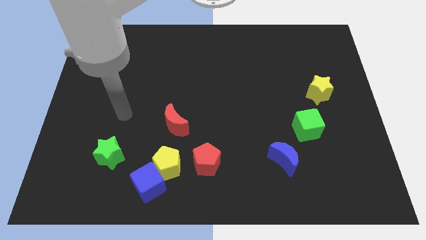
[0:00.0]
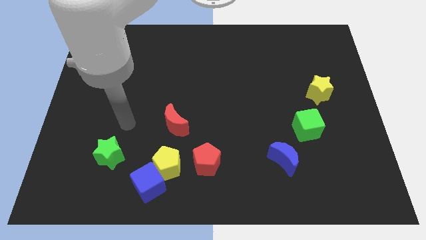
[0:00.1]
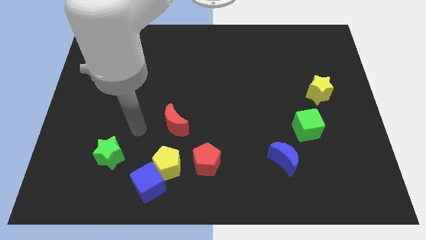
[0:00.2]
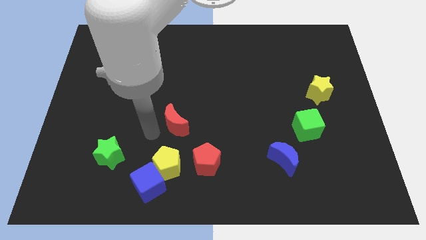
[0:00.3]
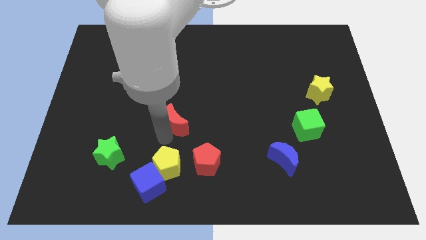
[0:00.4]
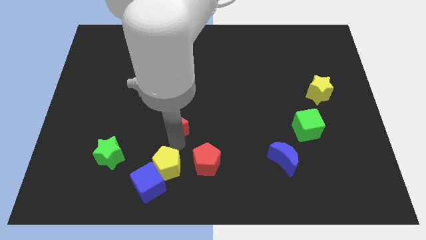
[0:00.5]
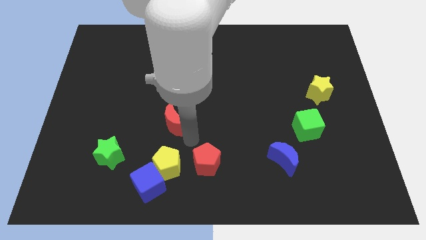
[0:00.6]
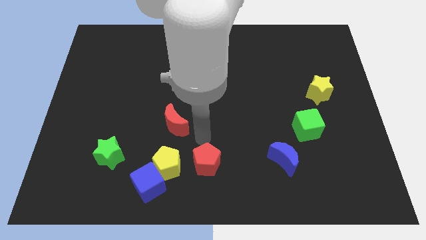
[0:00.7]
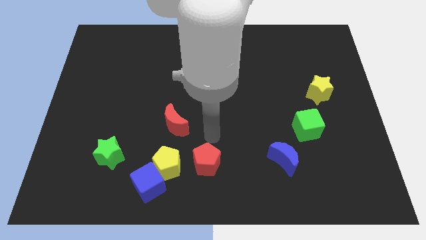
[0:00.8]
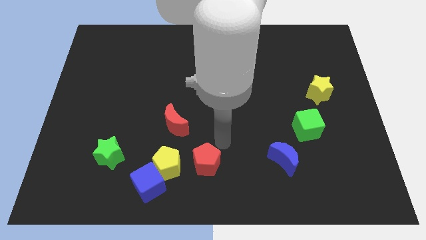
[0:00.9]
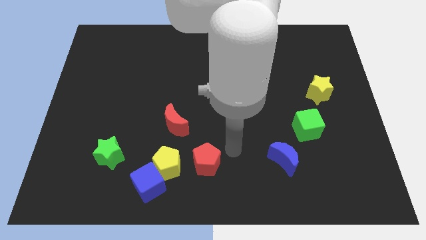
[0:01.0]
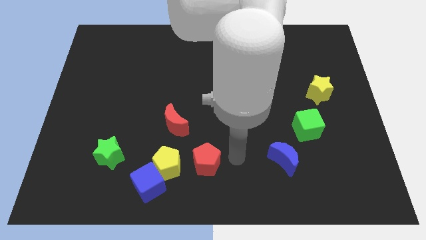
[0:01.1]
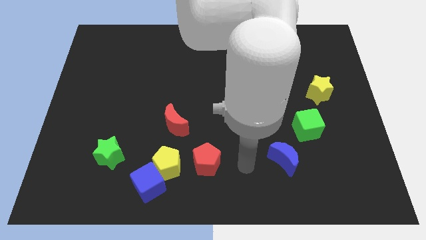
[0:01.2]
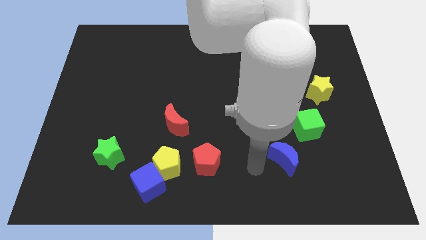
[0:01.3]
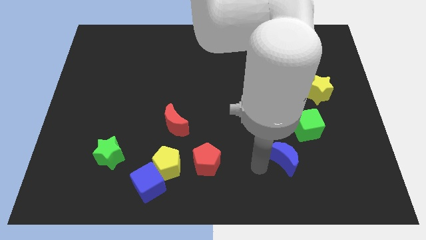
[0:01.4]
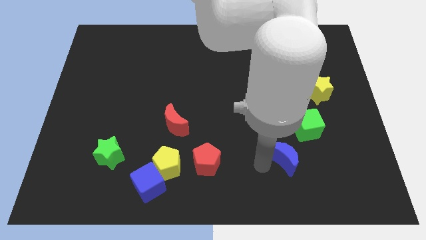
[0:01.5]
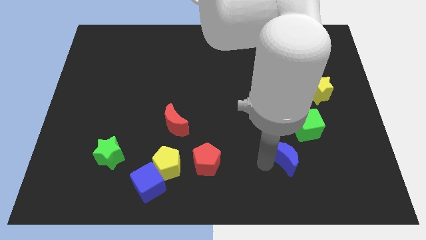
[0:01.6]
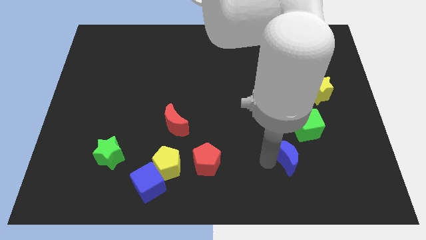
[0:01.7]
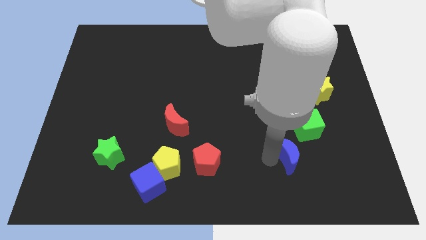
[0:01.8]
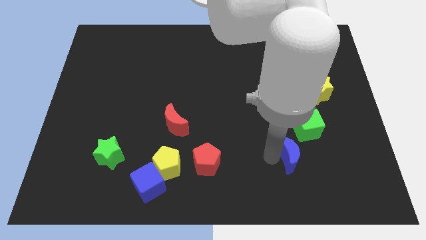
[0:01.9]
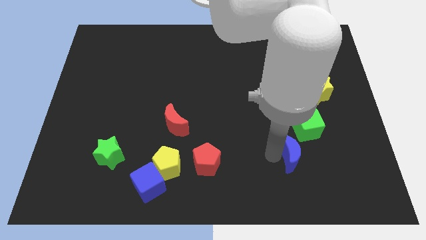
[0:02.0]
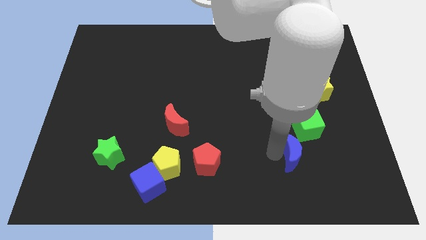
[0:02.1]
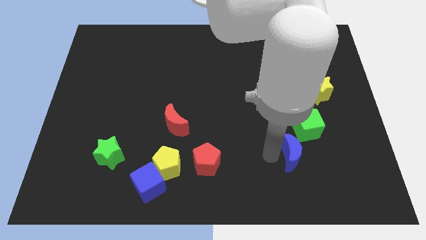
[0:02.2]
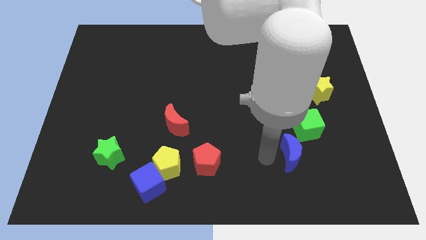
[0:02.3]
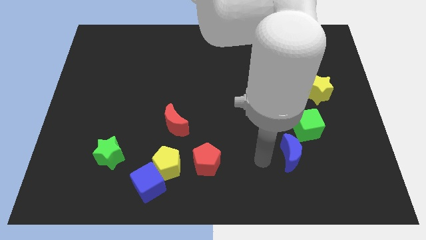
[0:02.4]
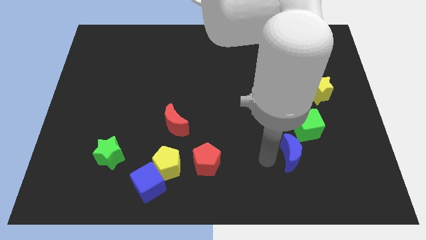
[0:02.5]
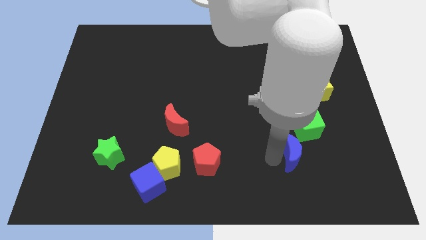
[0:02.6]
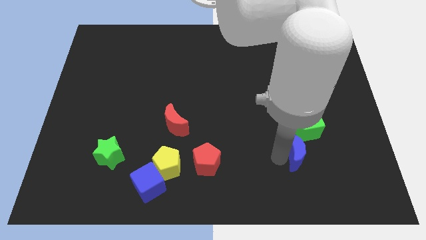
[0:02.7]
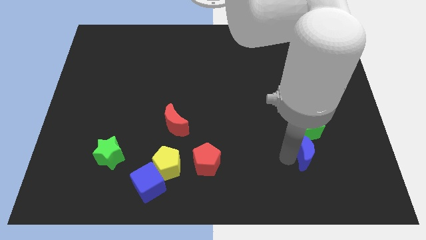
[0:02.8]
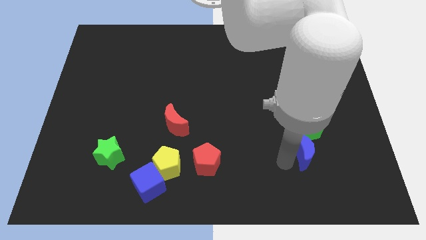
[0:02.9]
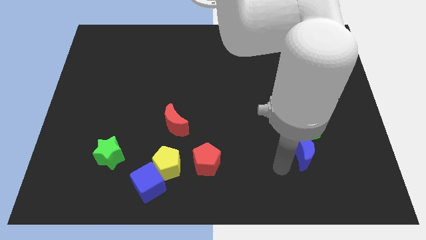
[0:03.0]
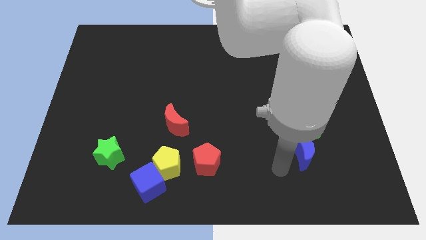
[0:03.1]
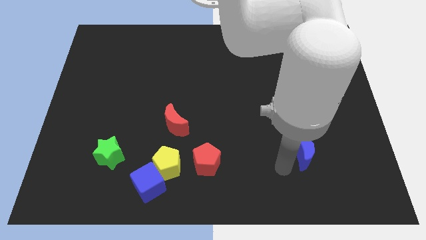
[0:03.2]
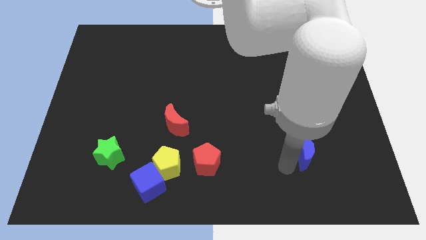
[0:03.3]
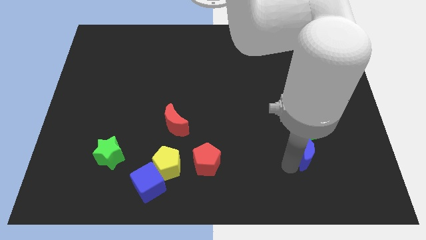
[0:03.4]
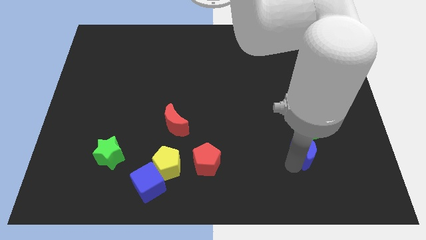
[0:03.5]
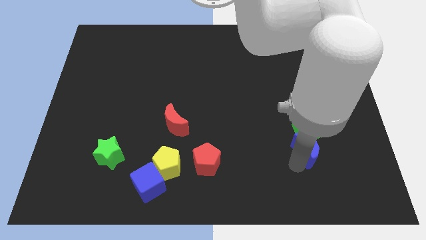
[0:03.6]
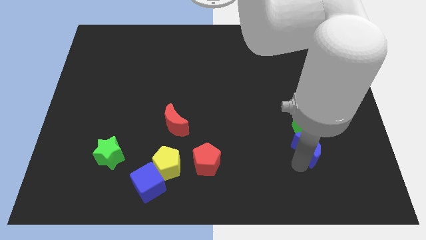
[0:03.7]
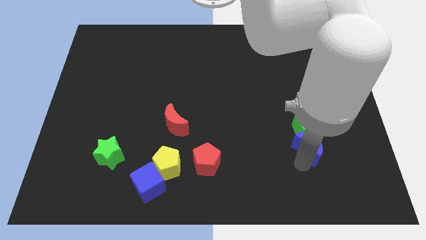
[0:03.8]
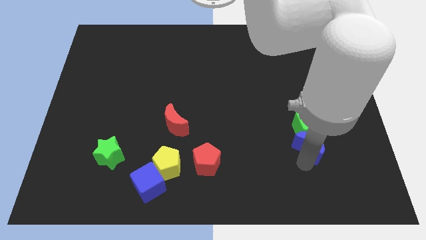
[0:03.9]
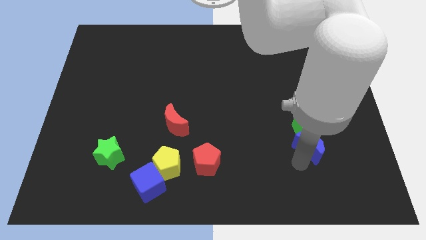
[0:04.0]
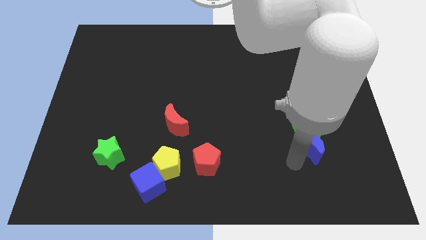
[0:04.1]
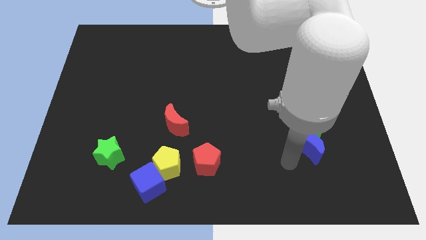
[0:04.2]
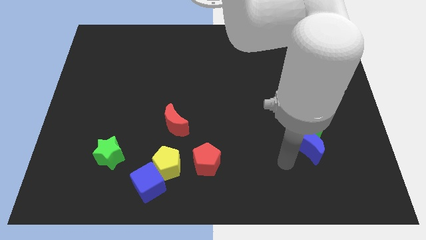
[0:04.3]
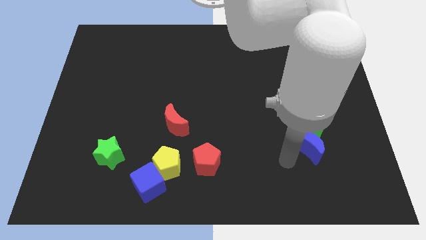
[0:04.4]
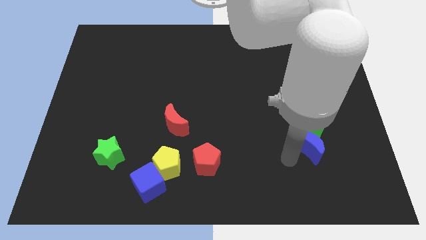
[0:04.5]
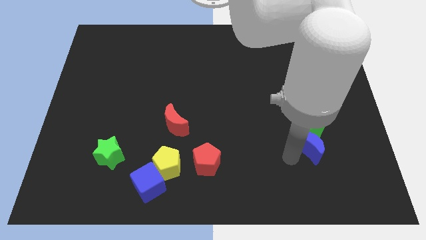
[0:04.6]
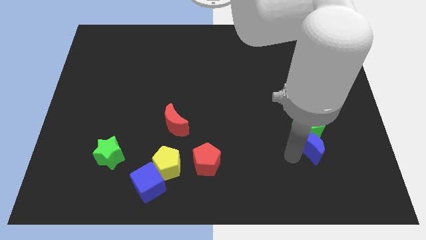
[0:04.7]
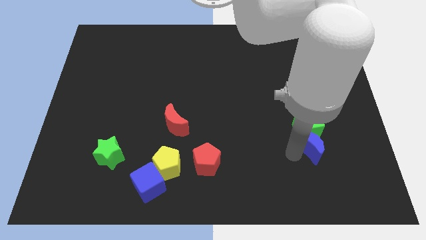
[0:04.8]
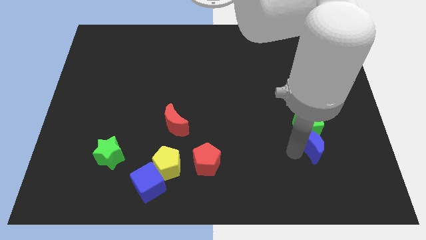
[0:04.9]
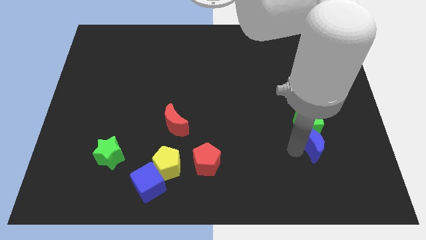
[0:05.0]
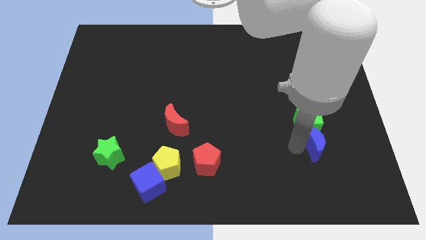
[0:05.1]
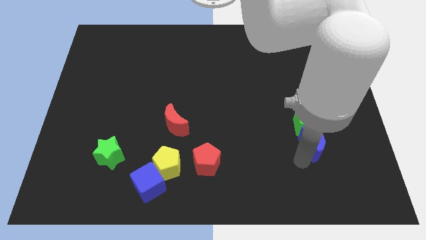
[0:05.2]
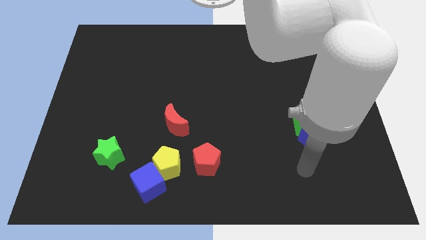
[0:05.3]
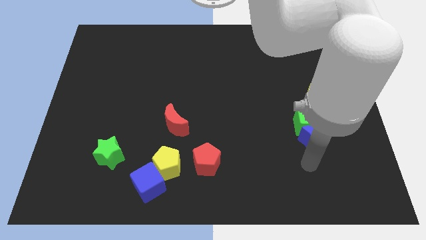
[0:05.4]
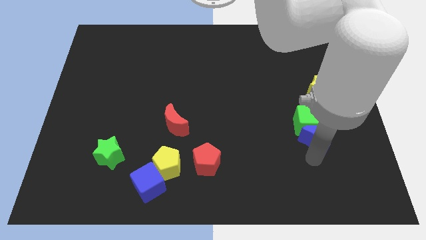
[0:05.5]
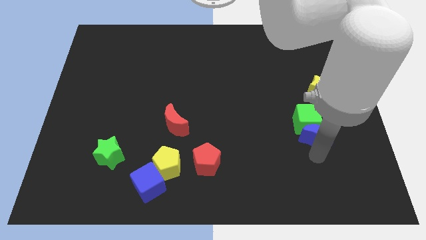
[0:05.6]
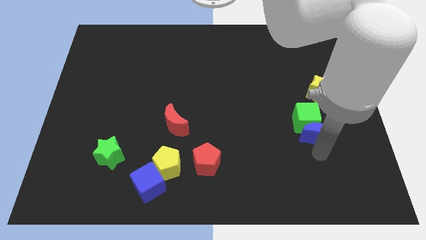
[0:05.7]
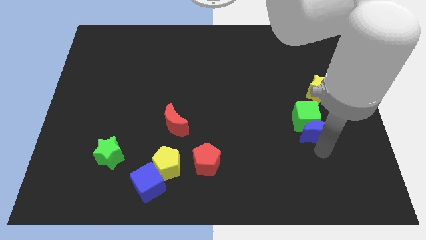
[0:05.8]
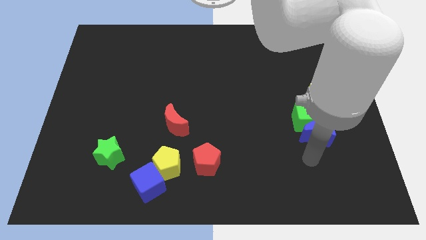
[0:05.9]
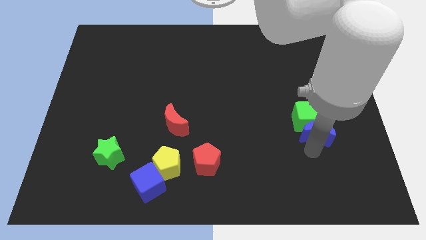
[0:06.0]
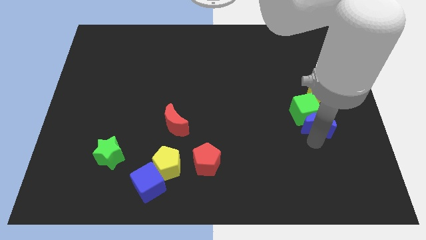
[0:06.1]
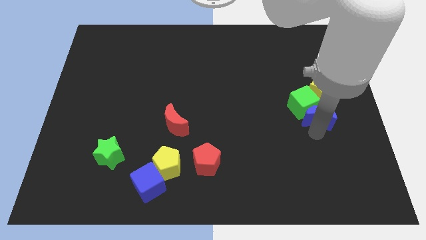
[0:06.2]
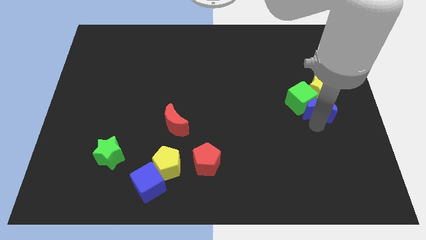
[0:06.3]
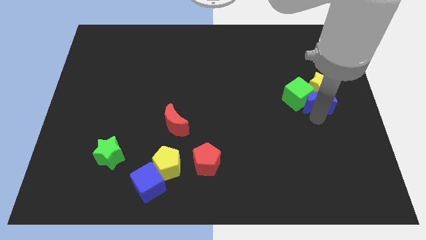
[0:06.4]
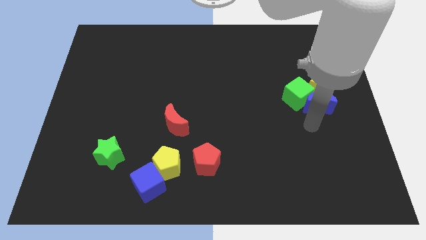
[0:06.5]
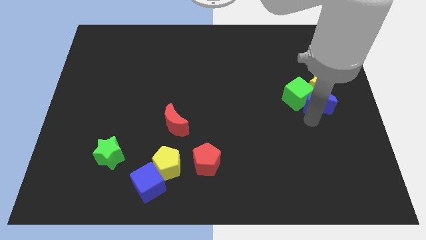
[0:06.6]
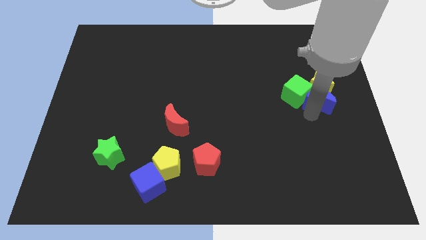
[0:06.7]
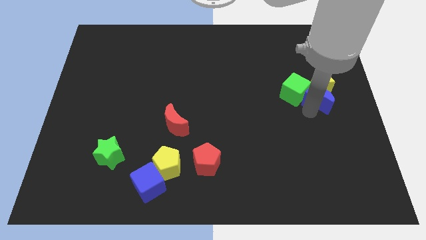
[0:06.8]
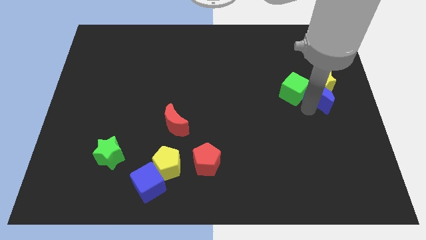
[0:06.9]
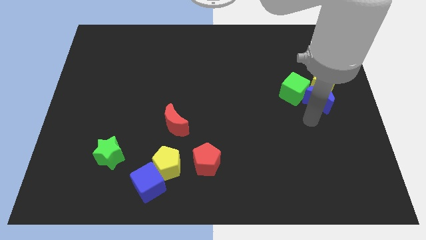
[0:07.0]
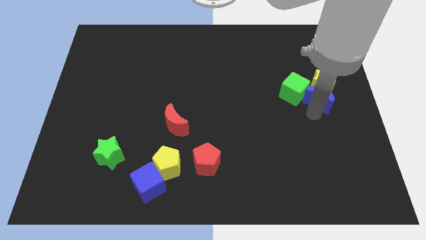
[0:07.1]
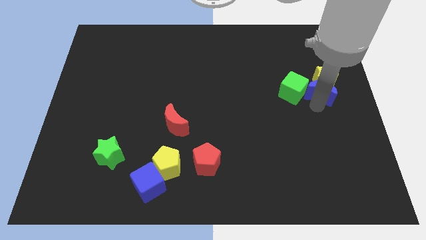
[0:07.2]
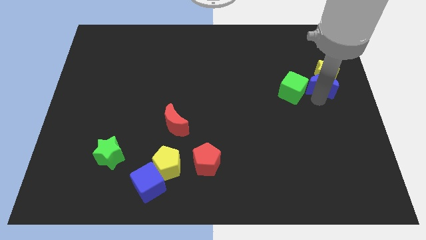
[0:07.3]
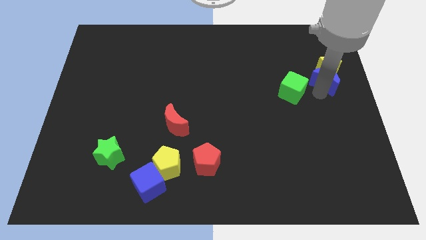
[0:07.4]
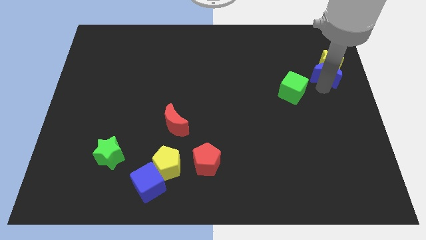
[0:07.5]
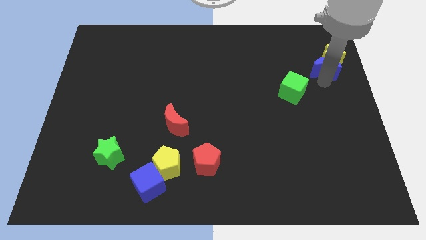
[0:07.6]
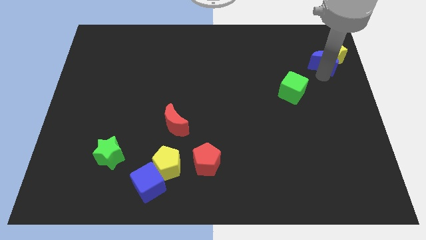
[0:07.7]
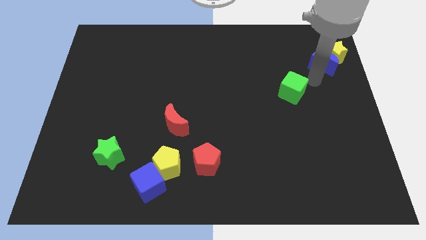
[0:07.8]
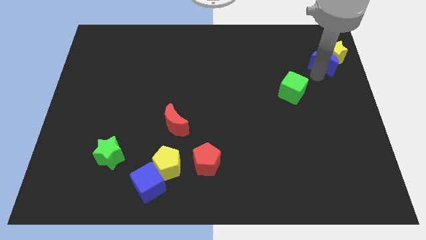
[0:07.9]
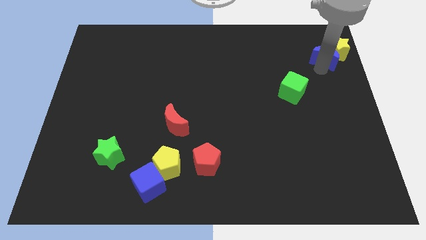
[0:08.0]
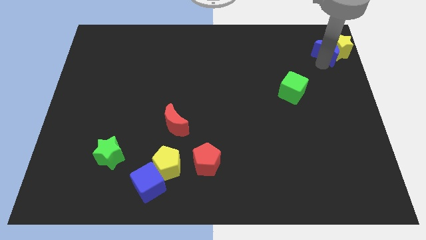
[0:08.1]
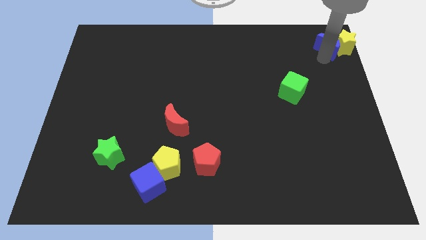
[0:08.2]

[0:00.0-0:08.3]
slide the blue moon to the top right
